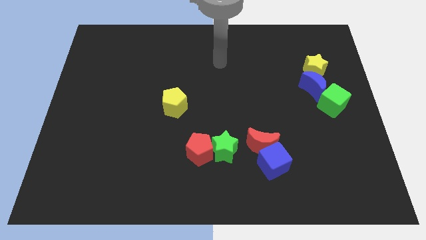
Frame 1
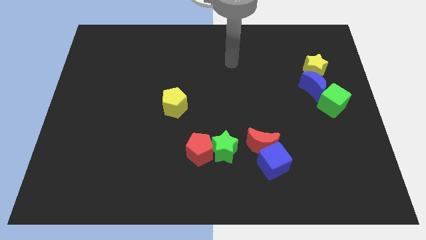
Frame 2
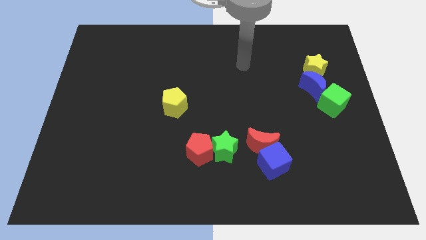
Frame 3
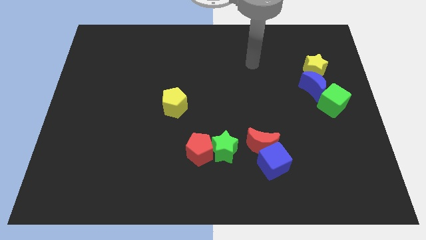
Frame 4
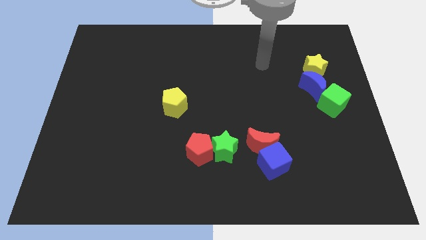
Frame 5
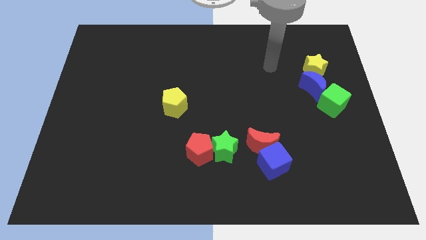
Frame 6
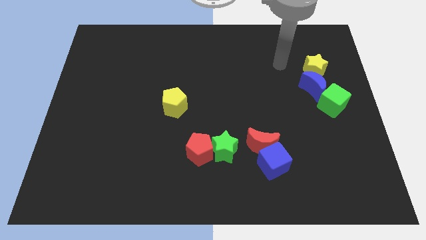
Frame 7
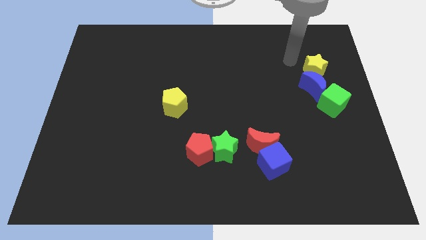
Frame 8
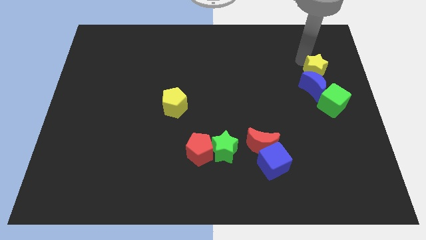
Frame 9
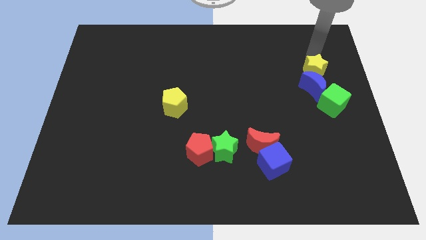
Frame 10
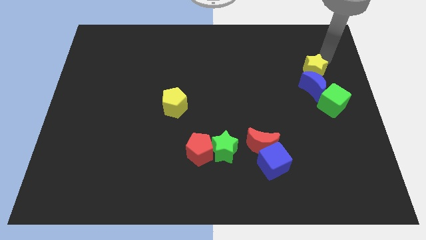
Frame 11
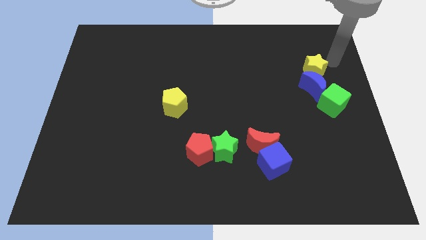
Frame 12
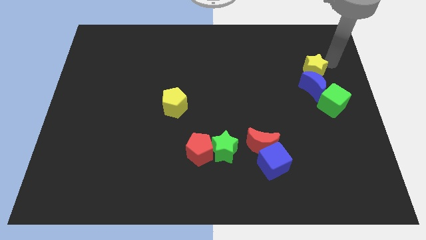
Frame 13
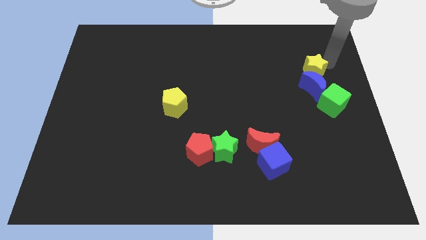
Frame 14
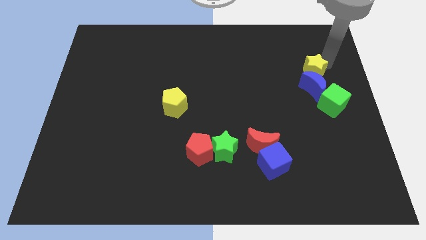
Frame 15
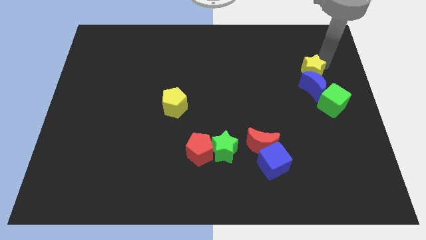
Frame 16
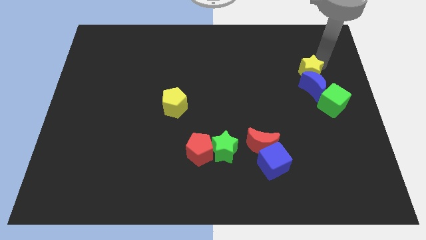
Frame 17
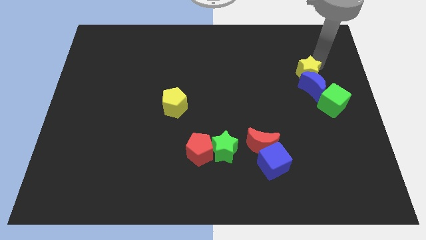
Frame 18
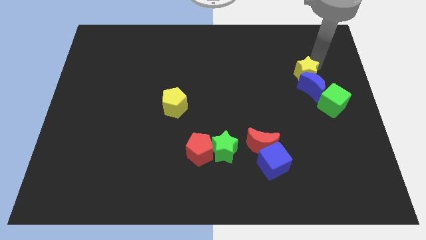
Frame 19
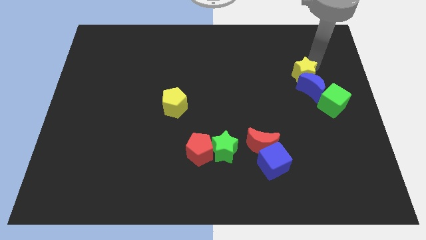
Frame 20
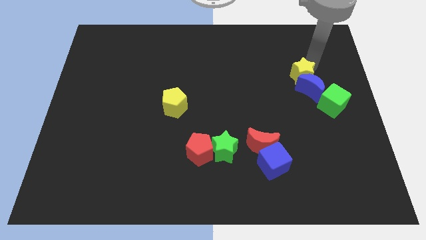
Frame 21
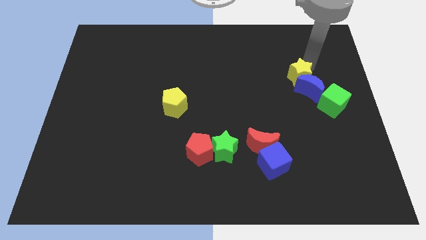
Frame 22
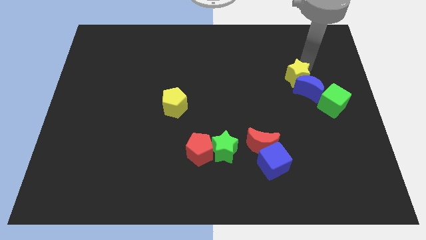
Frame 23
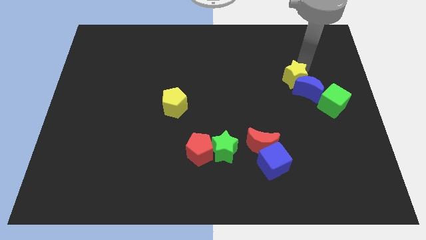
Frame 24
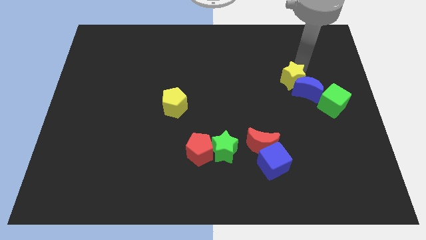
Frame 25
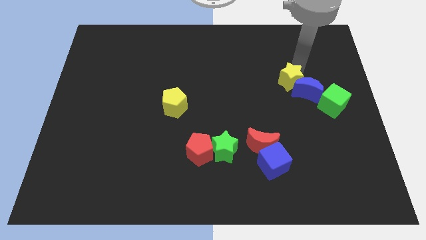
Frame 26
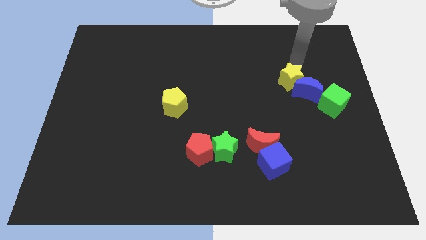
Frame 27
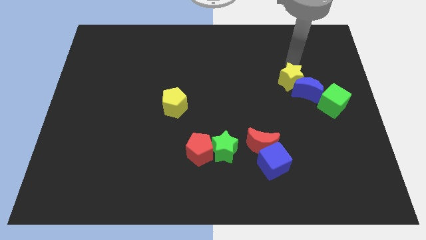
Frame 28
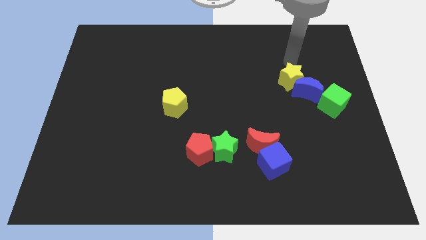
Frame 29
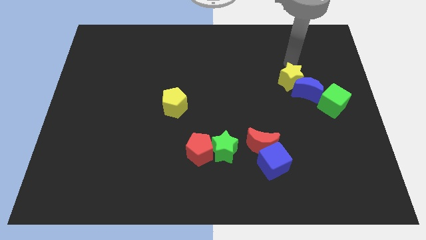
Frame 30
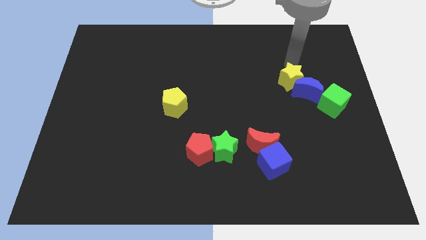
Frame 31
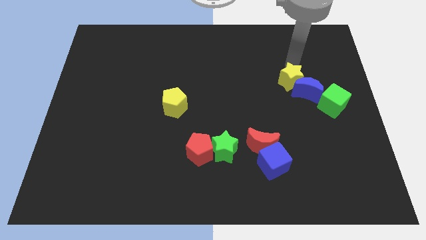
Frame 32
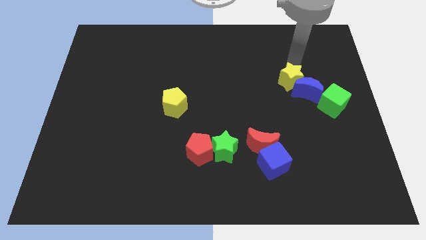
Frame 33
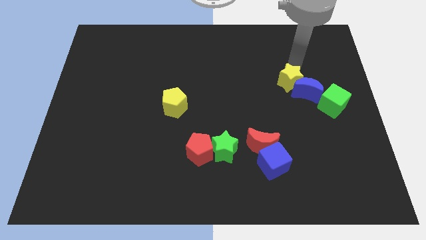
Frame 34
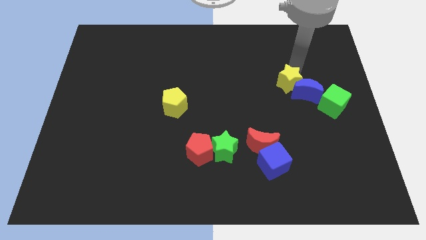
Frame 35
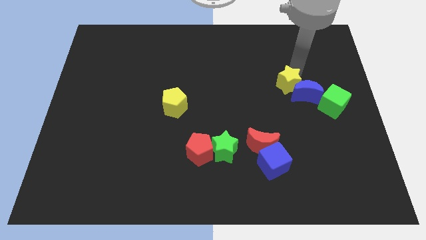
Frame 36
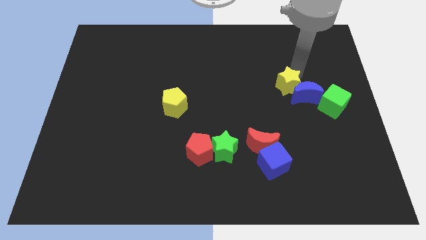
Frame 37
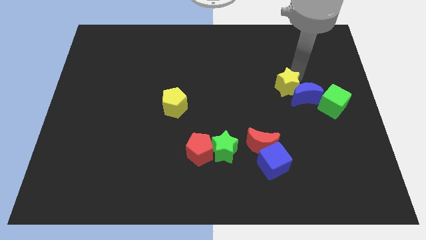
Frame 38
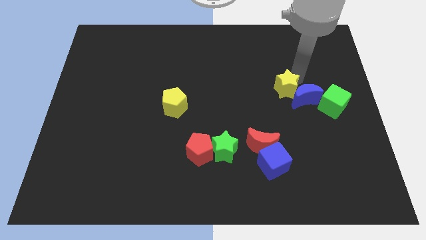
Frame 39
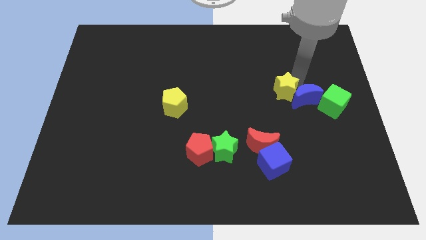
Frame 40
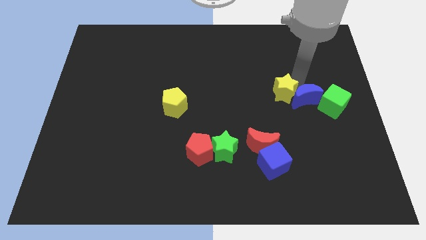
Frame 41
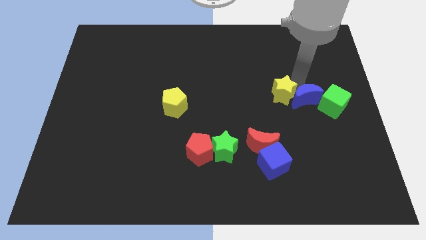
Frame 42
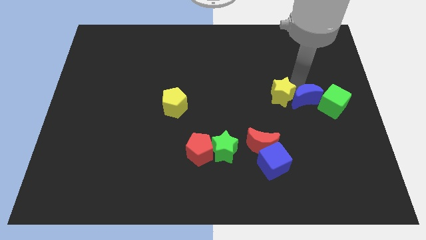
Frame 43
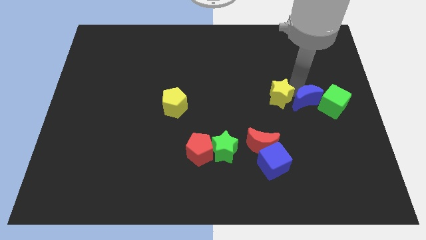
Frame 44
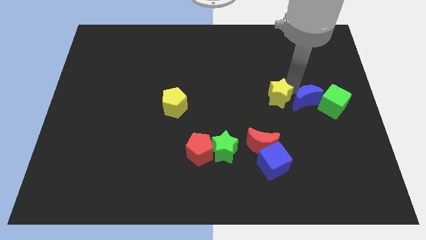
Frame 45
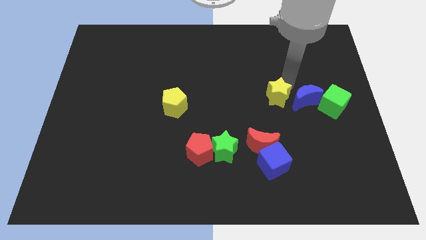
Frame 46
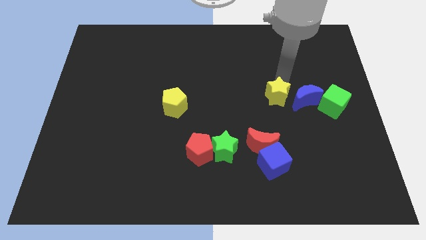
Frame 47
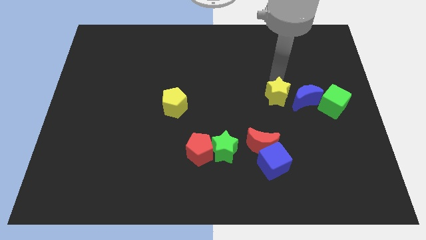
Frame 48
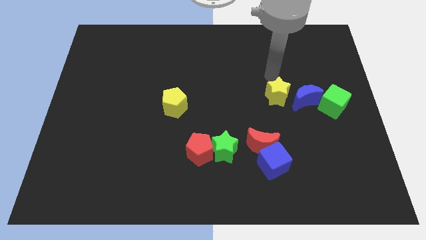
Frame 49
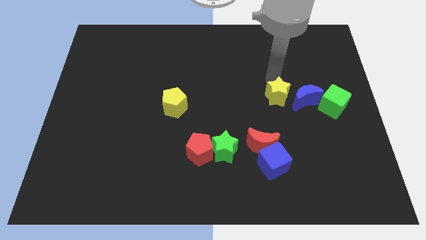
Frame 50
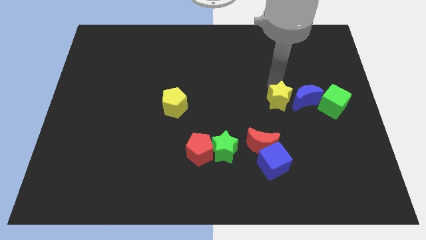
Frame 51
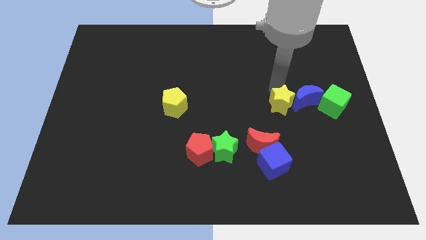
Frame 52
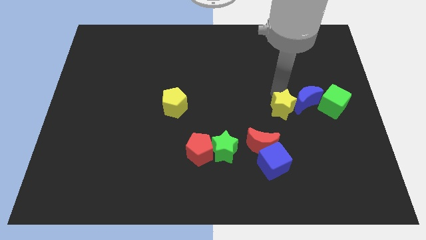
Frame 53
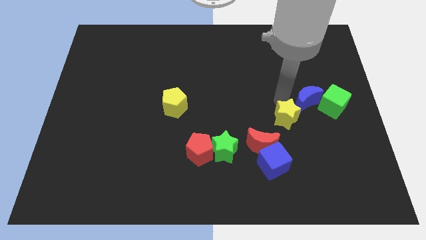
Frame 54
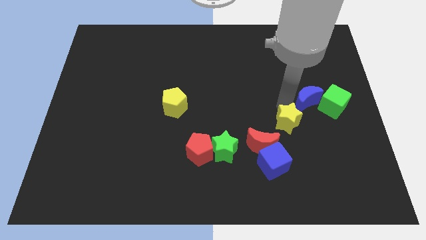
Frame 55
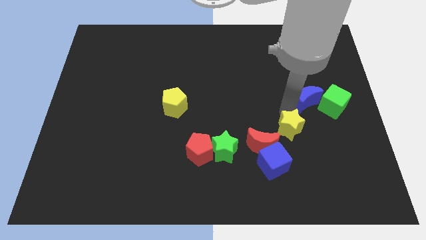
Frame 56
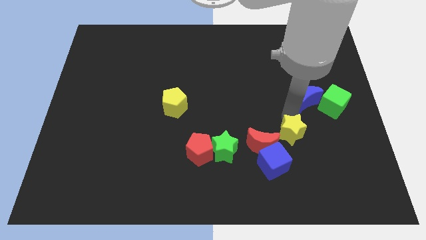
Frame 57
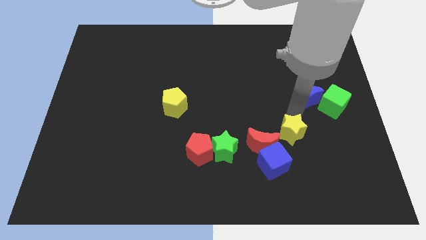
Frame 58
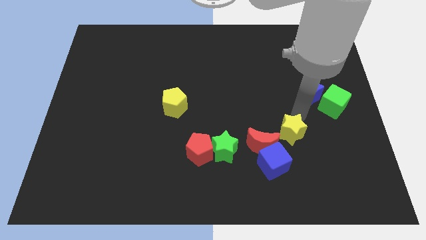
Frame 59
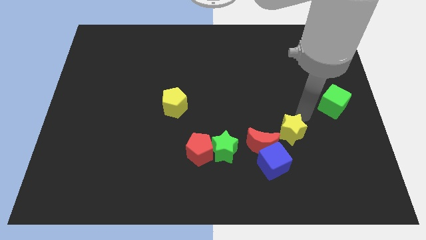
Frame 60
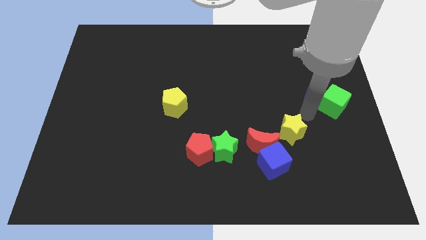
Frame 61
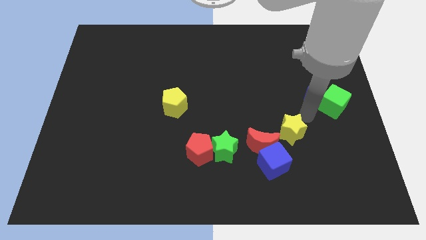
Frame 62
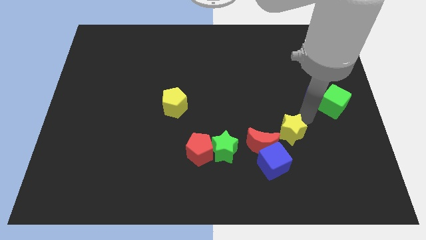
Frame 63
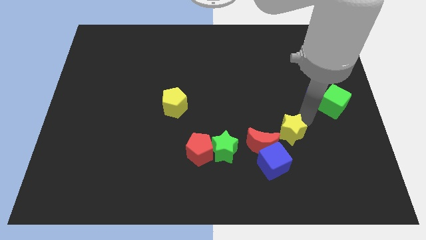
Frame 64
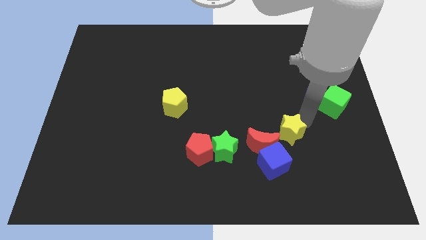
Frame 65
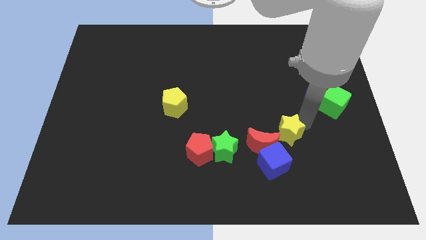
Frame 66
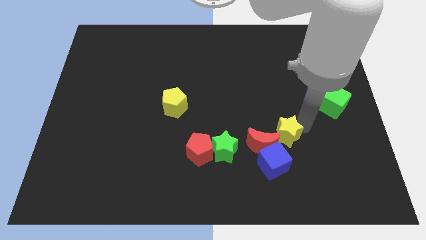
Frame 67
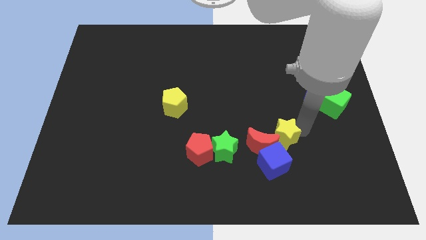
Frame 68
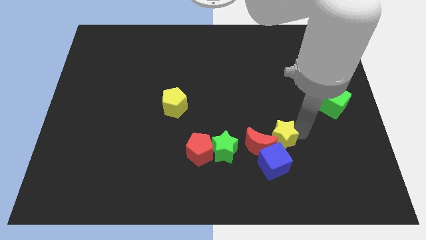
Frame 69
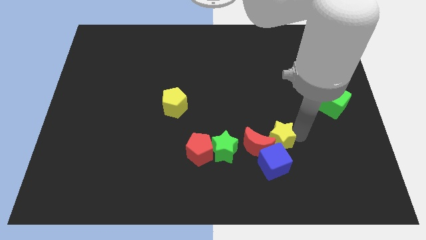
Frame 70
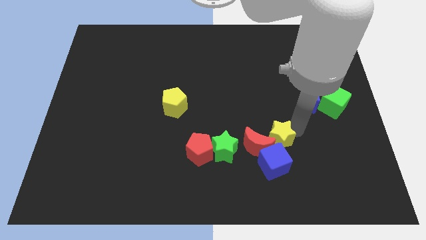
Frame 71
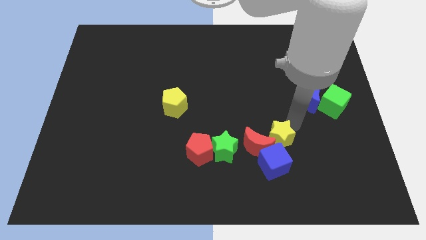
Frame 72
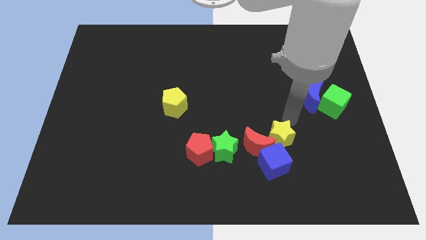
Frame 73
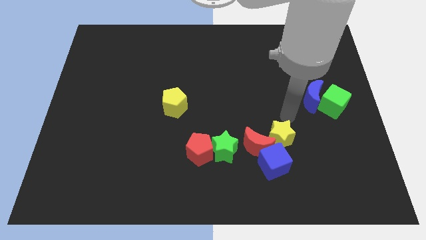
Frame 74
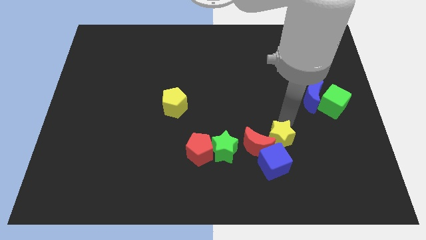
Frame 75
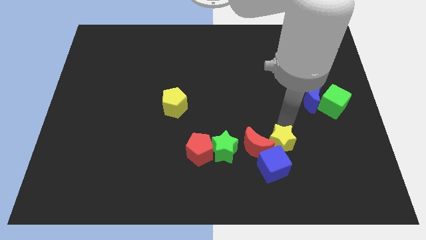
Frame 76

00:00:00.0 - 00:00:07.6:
push the yellow star next to the blue cube
